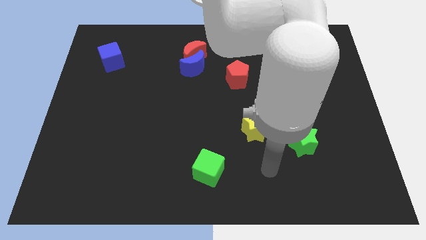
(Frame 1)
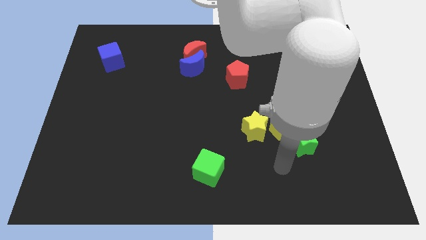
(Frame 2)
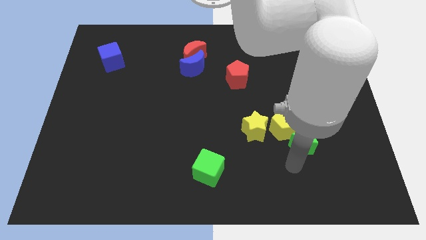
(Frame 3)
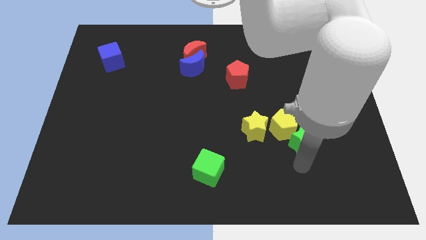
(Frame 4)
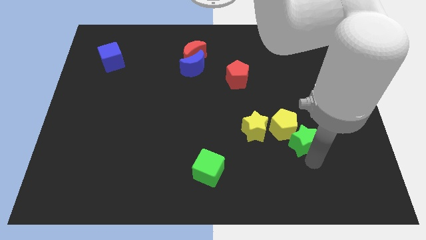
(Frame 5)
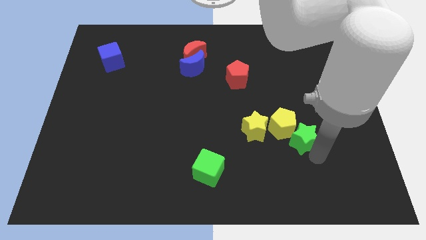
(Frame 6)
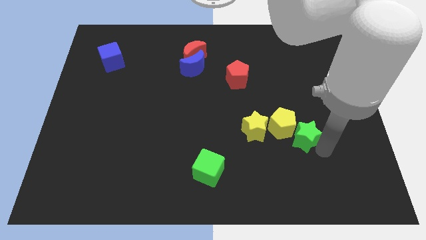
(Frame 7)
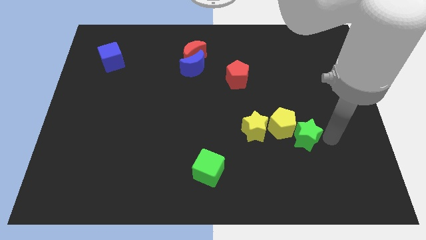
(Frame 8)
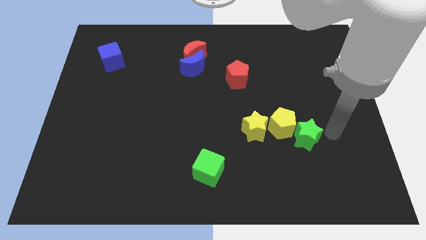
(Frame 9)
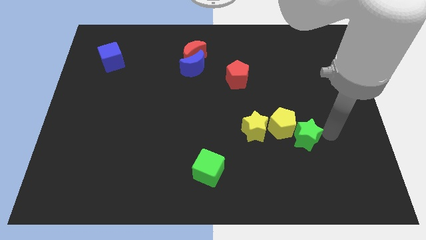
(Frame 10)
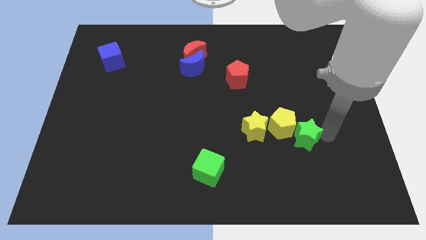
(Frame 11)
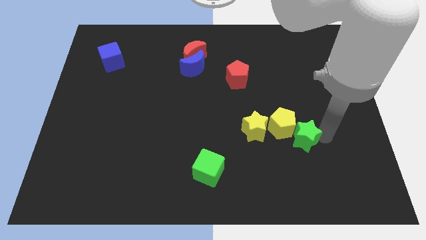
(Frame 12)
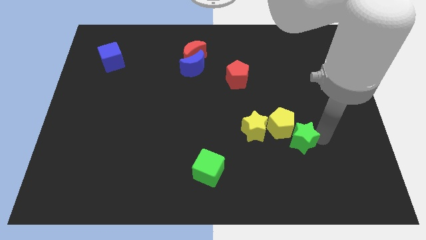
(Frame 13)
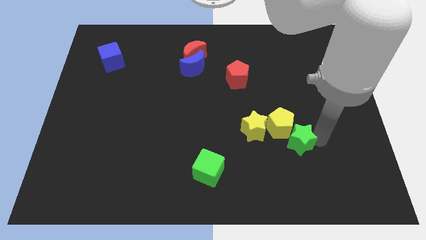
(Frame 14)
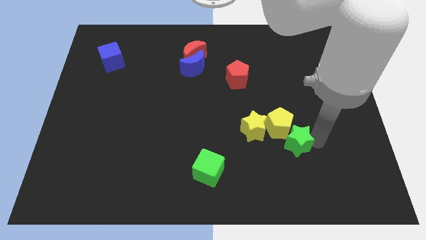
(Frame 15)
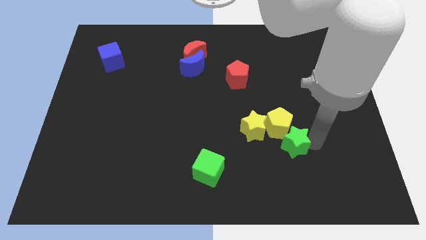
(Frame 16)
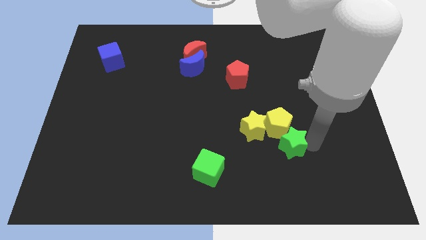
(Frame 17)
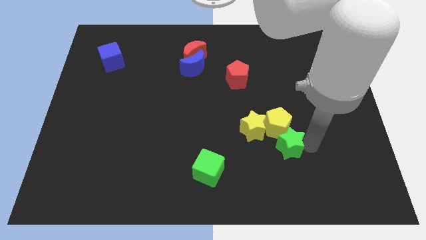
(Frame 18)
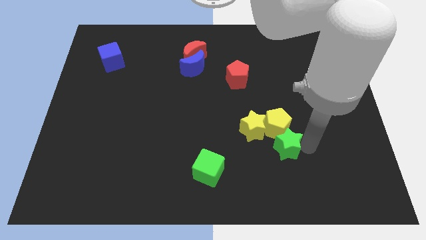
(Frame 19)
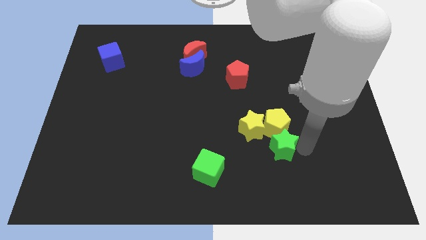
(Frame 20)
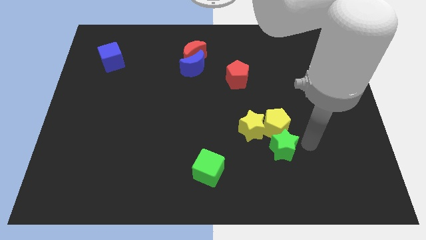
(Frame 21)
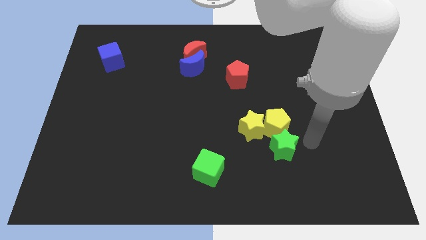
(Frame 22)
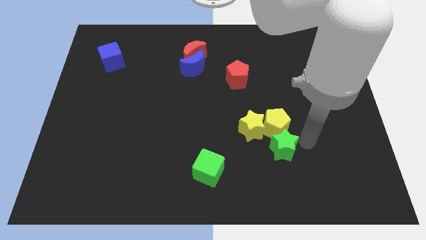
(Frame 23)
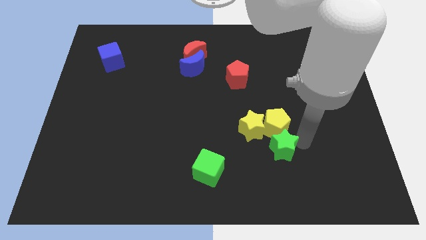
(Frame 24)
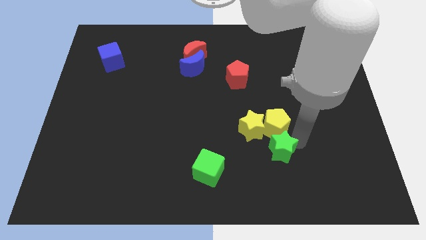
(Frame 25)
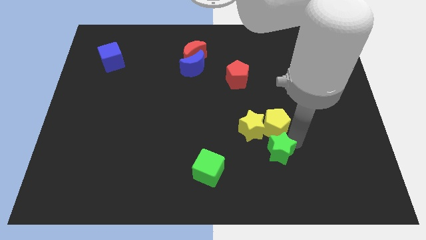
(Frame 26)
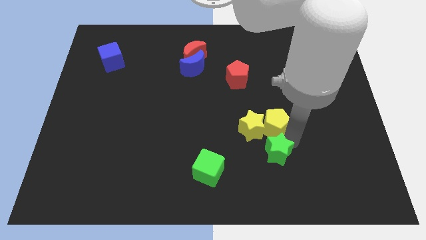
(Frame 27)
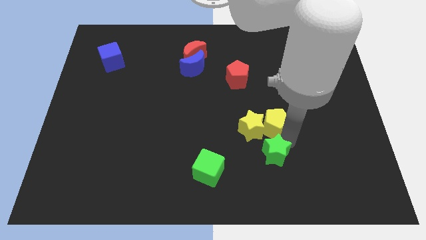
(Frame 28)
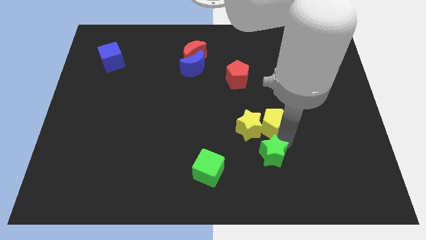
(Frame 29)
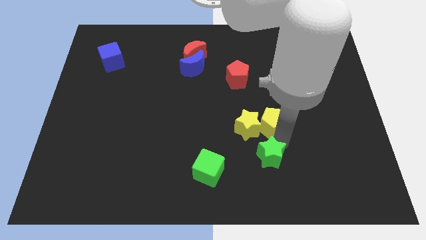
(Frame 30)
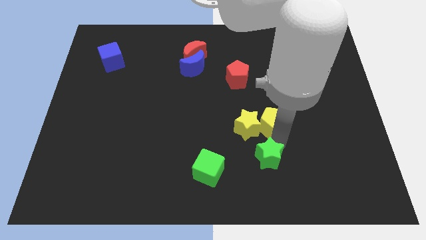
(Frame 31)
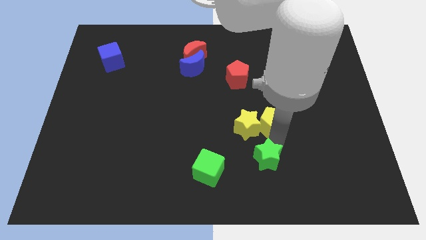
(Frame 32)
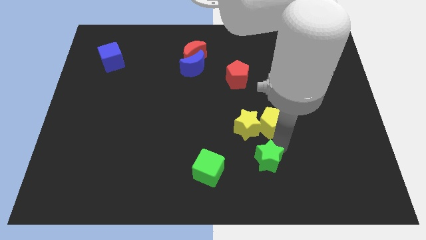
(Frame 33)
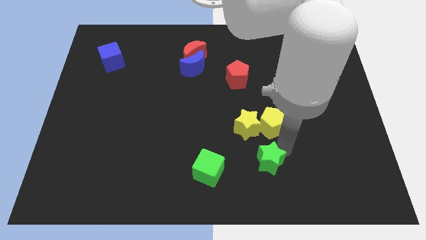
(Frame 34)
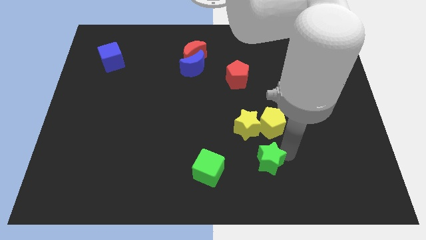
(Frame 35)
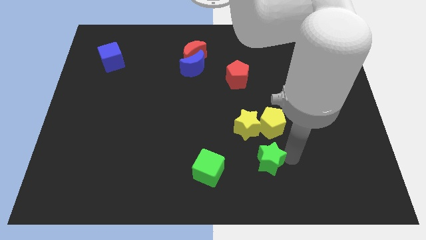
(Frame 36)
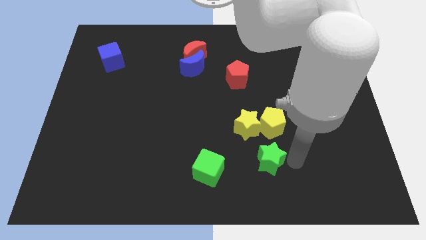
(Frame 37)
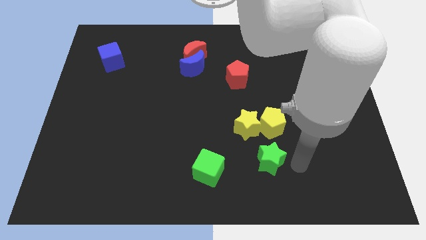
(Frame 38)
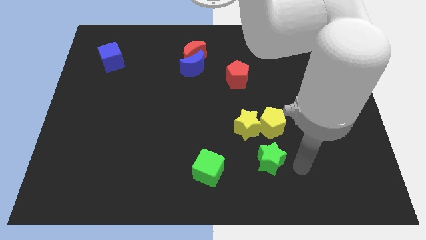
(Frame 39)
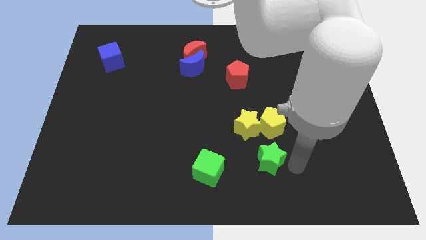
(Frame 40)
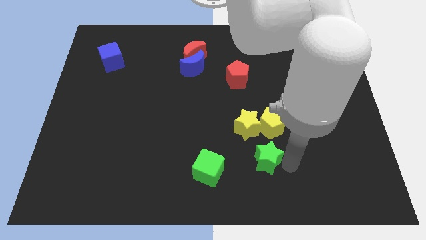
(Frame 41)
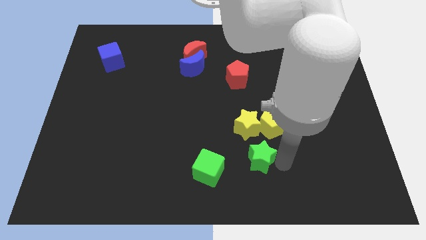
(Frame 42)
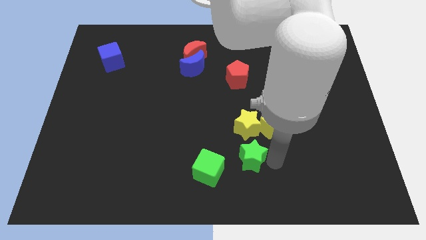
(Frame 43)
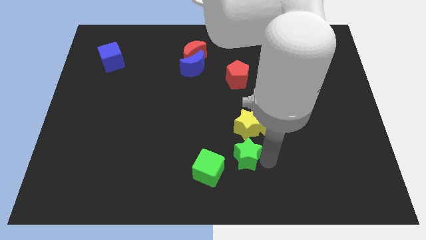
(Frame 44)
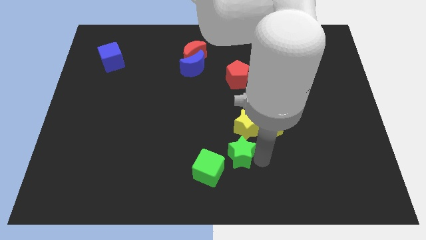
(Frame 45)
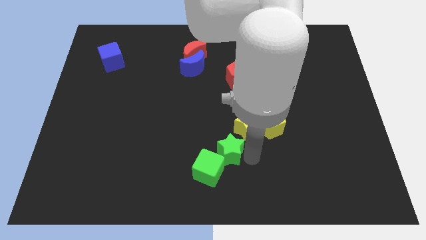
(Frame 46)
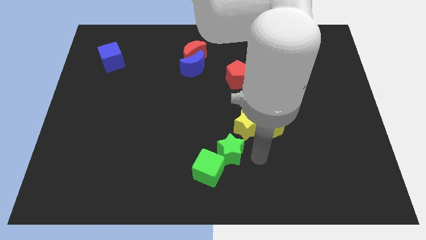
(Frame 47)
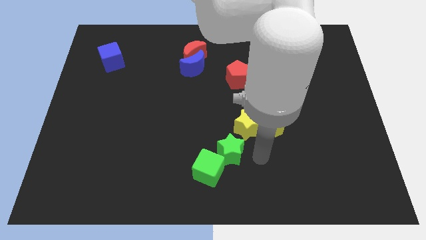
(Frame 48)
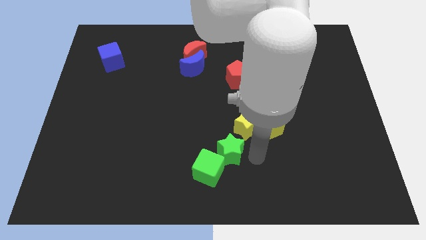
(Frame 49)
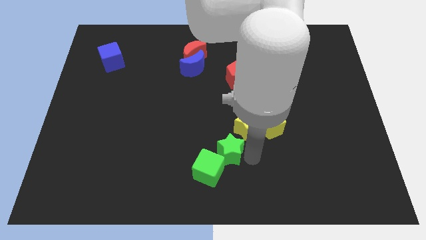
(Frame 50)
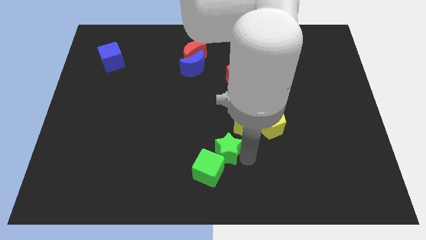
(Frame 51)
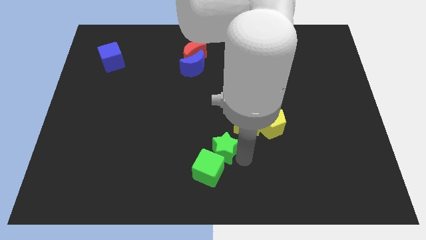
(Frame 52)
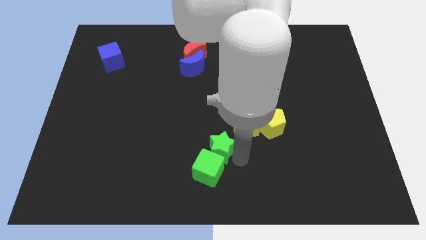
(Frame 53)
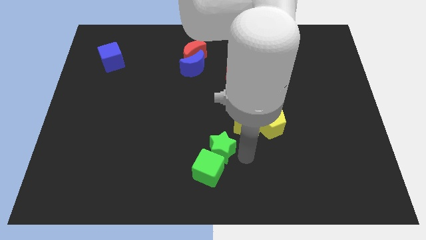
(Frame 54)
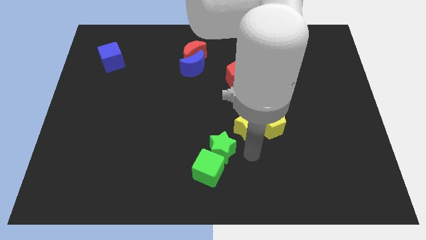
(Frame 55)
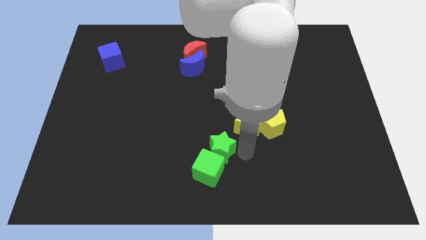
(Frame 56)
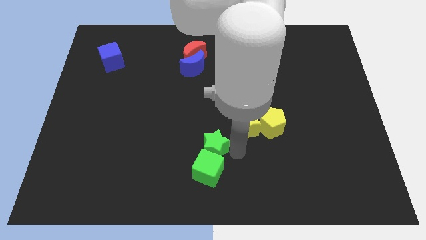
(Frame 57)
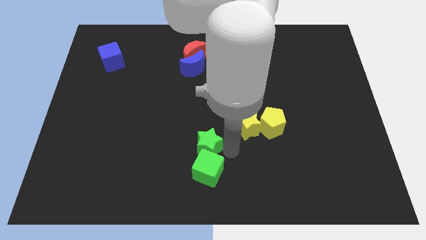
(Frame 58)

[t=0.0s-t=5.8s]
slide the green star to the left

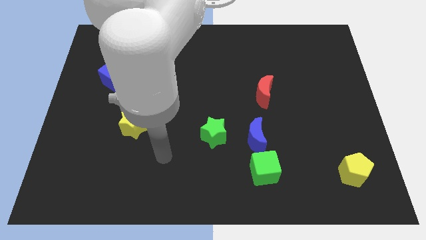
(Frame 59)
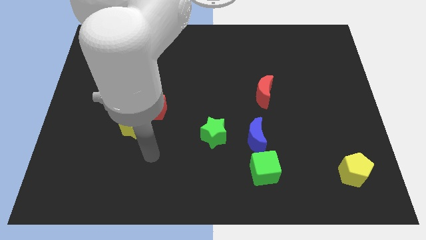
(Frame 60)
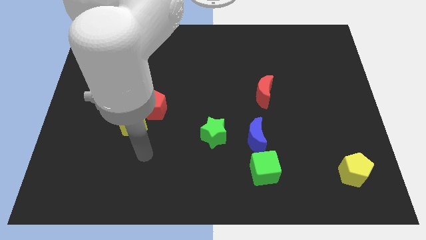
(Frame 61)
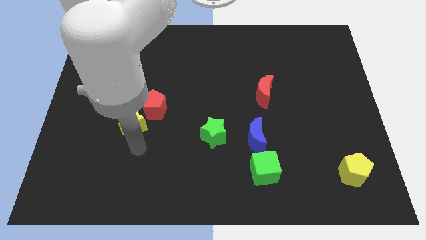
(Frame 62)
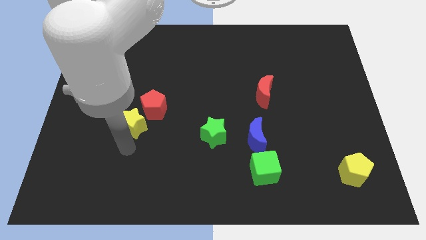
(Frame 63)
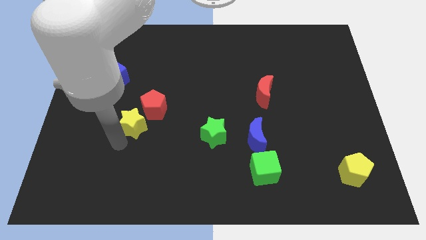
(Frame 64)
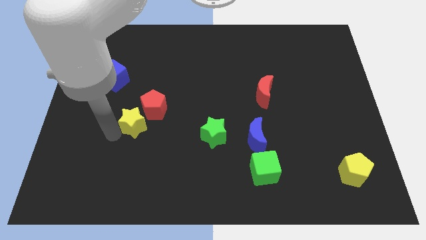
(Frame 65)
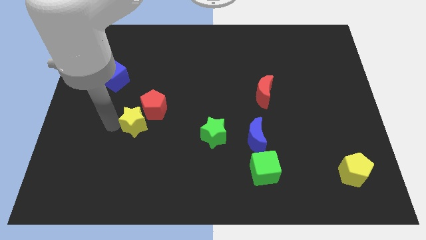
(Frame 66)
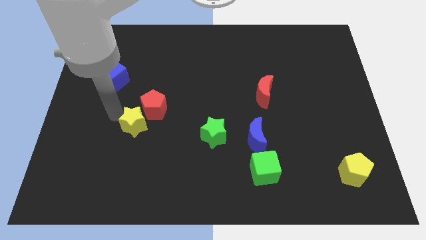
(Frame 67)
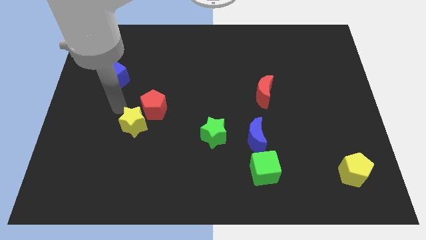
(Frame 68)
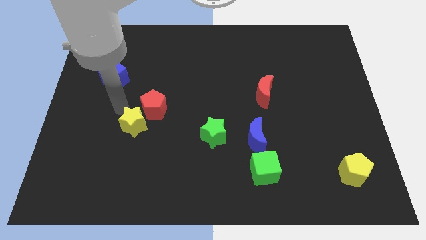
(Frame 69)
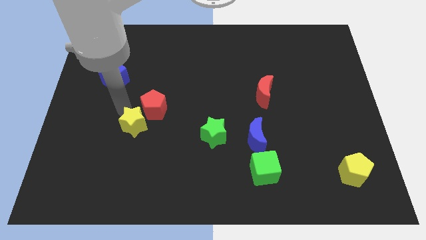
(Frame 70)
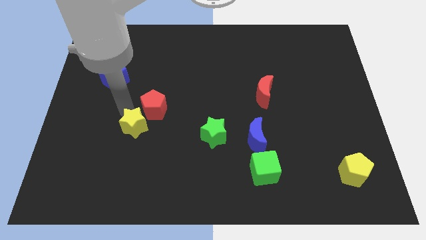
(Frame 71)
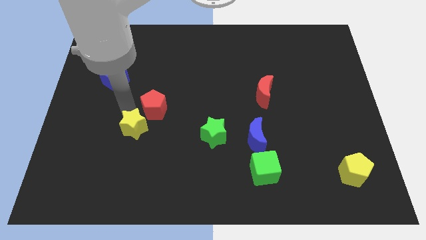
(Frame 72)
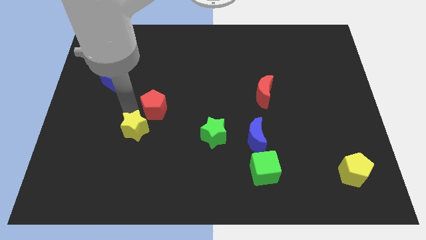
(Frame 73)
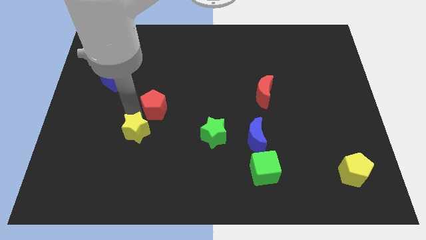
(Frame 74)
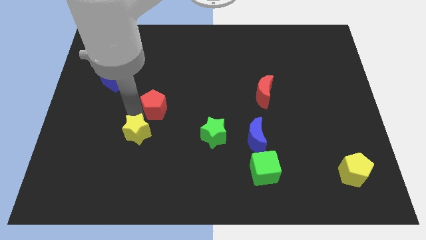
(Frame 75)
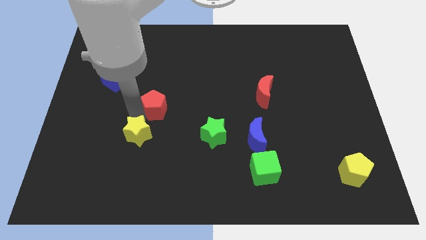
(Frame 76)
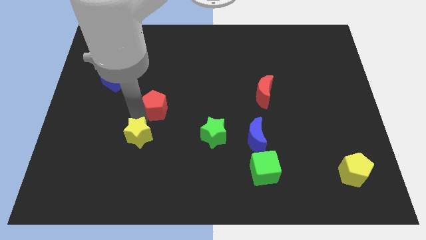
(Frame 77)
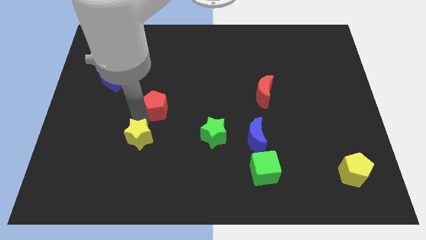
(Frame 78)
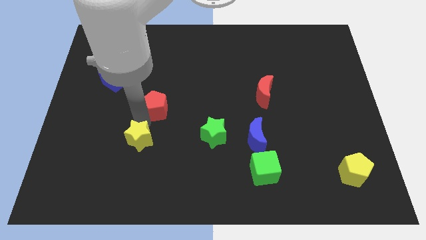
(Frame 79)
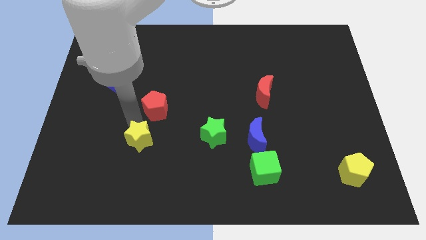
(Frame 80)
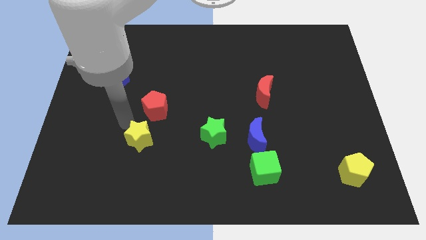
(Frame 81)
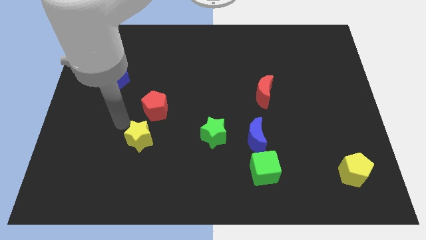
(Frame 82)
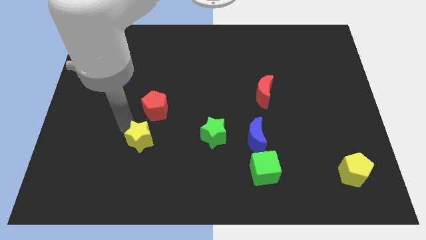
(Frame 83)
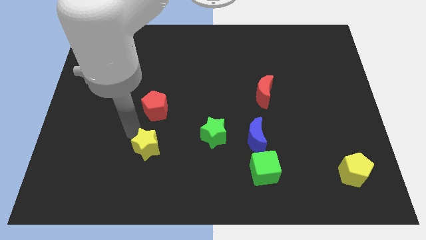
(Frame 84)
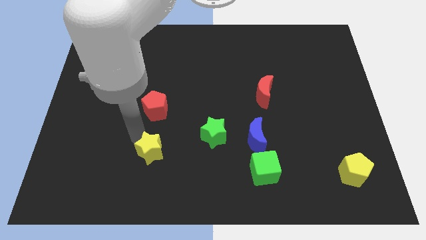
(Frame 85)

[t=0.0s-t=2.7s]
slightly move the yellow star downwards and to the right
